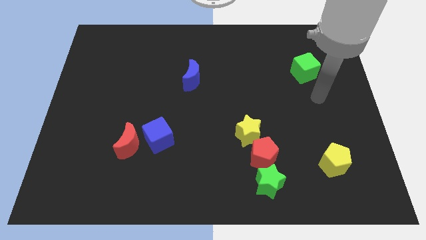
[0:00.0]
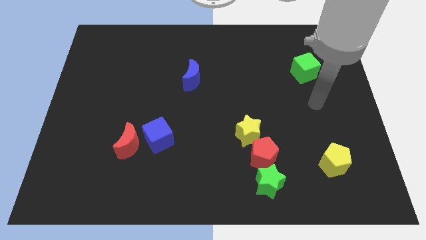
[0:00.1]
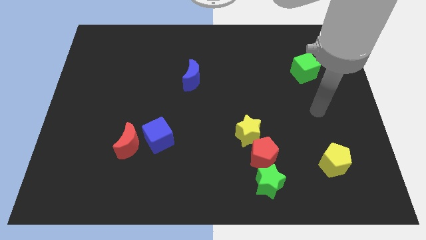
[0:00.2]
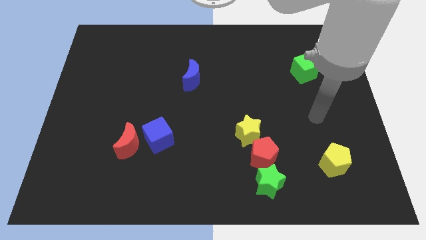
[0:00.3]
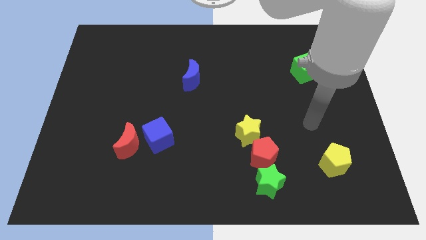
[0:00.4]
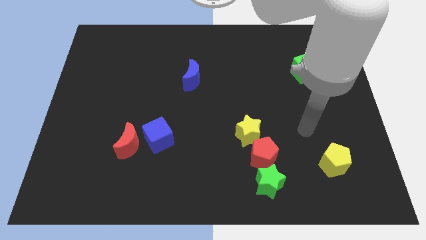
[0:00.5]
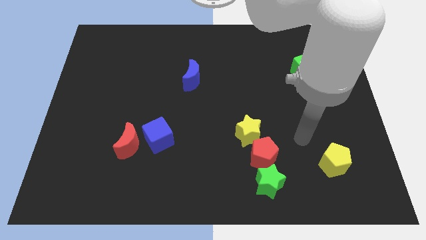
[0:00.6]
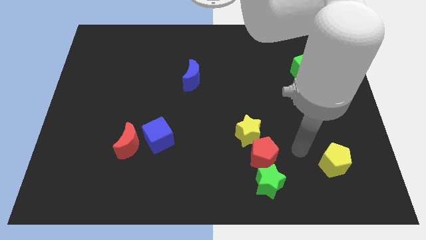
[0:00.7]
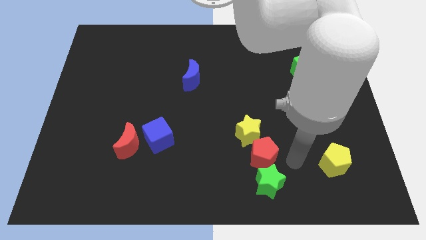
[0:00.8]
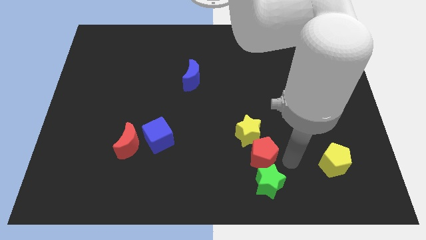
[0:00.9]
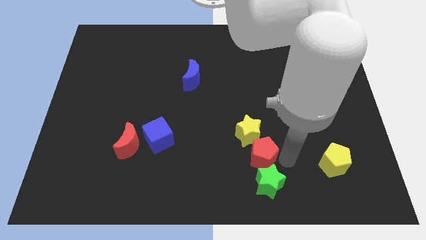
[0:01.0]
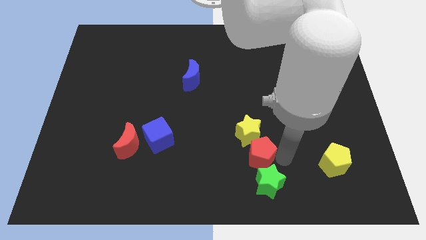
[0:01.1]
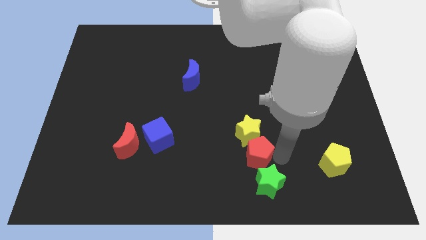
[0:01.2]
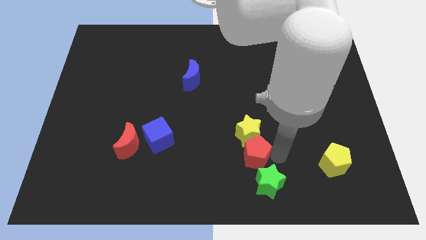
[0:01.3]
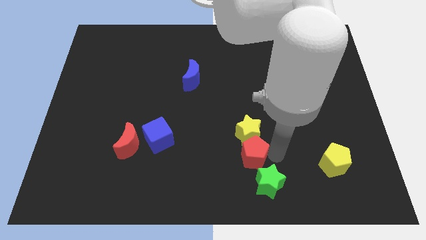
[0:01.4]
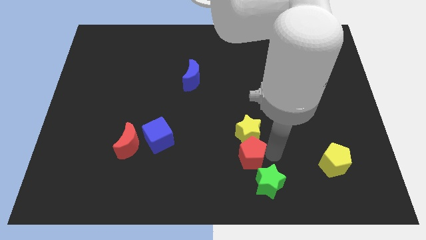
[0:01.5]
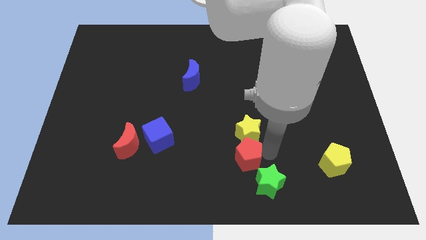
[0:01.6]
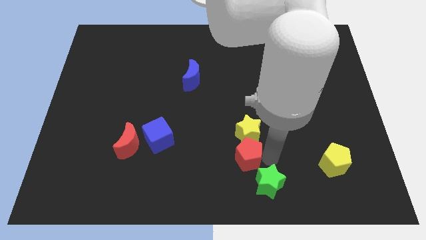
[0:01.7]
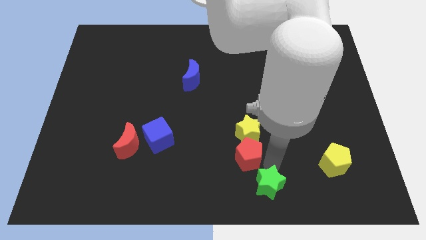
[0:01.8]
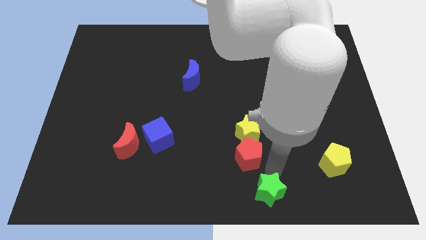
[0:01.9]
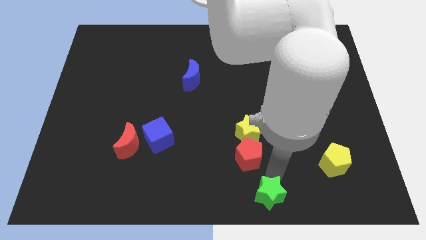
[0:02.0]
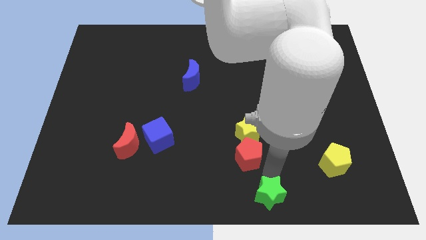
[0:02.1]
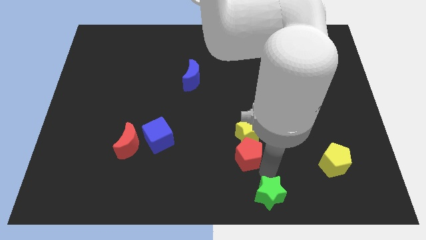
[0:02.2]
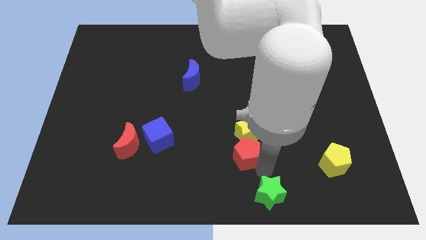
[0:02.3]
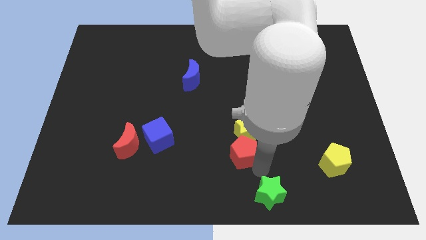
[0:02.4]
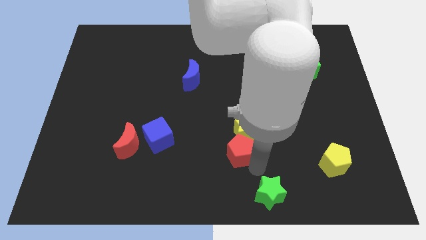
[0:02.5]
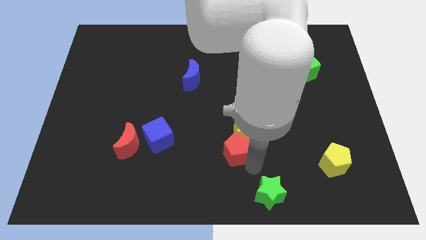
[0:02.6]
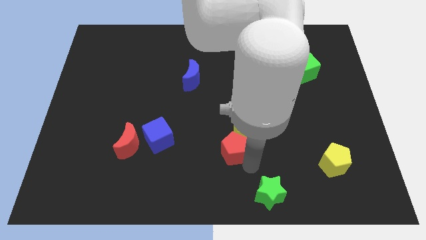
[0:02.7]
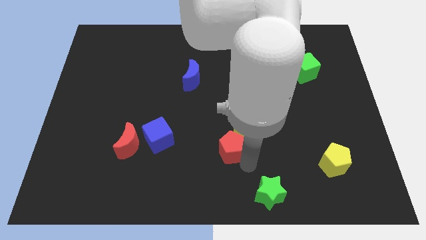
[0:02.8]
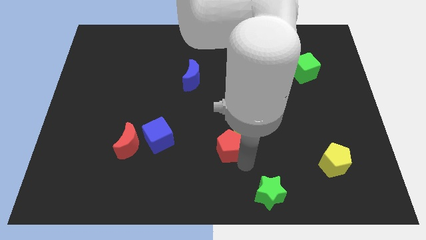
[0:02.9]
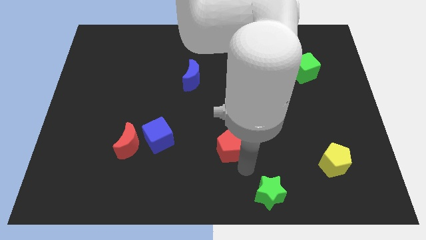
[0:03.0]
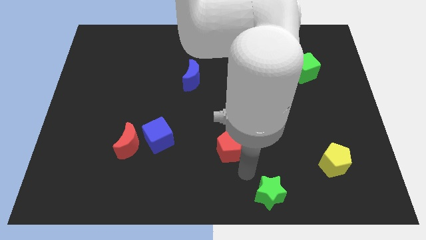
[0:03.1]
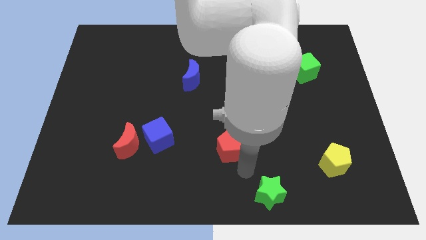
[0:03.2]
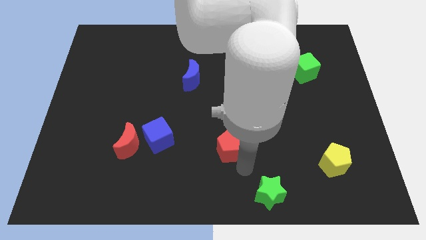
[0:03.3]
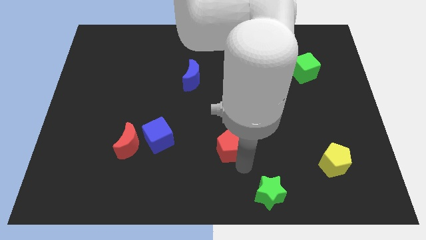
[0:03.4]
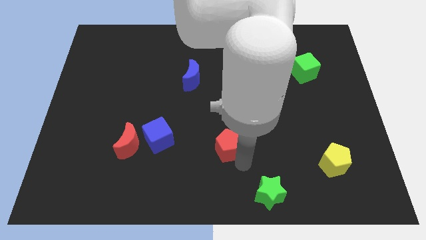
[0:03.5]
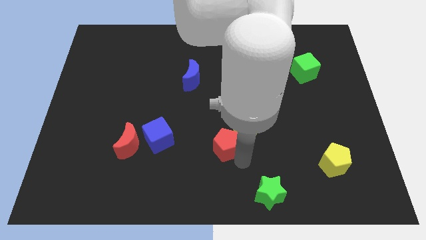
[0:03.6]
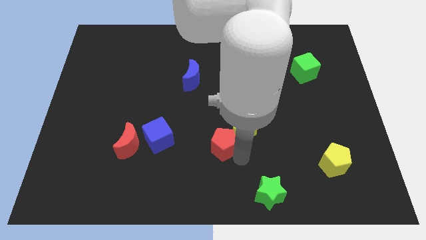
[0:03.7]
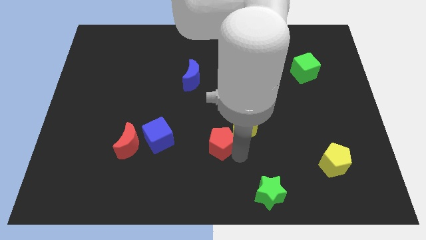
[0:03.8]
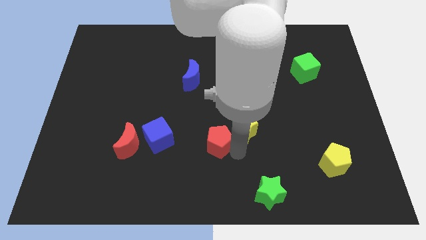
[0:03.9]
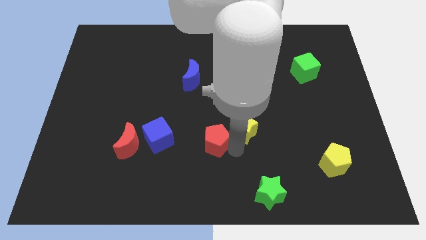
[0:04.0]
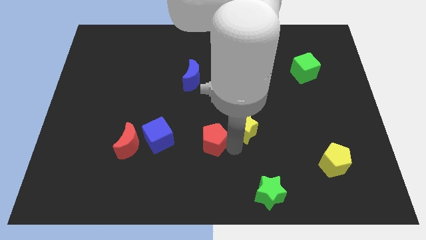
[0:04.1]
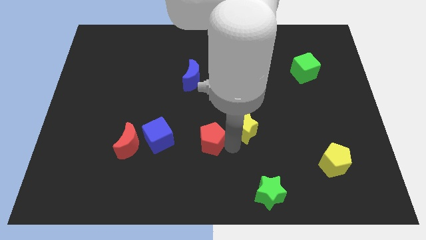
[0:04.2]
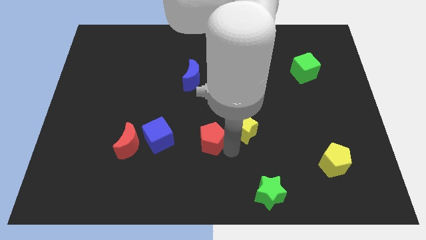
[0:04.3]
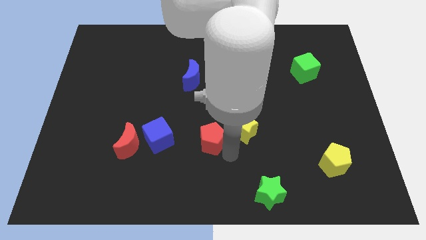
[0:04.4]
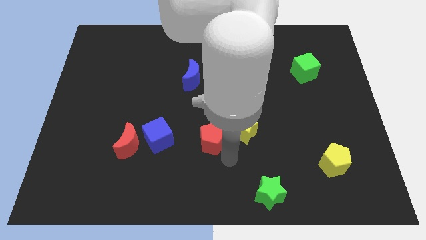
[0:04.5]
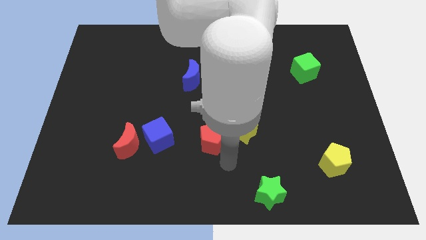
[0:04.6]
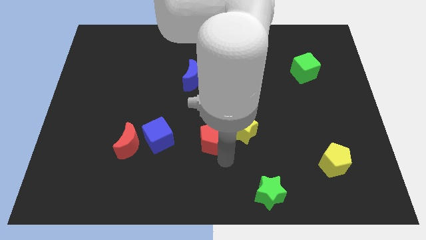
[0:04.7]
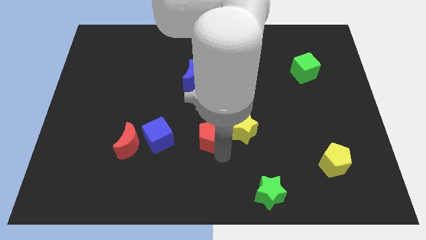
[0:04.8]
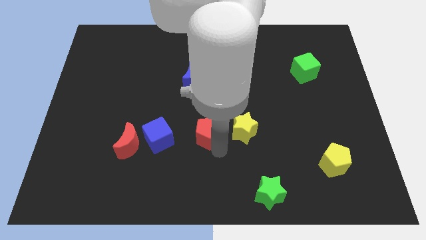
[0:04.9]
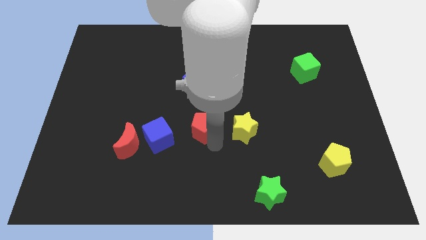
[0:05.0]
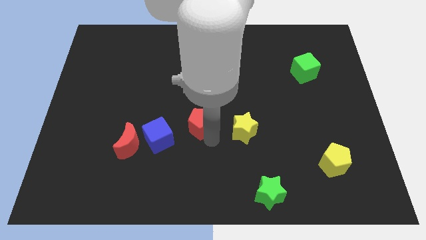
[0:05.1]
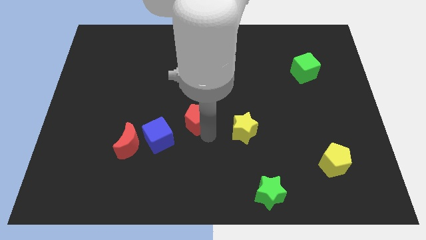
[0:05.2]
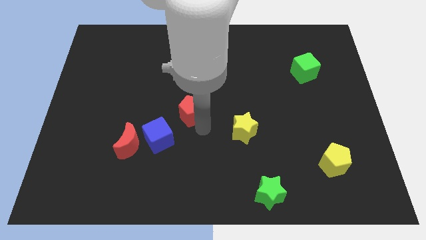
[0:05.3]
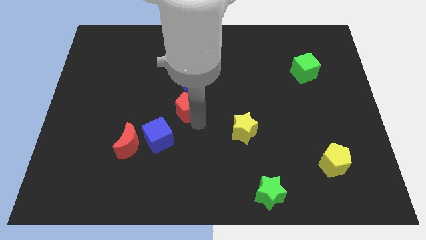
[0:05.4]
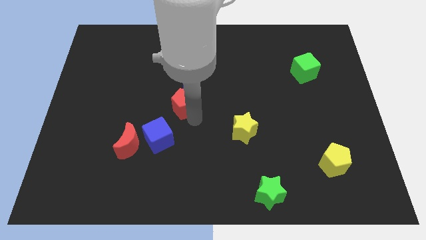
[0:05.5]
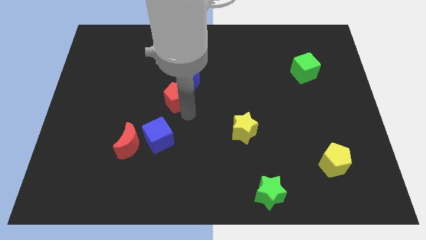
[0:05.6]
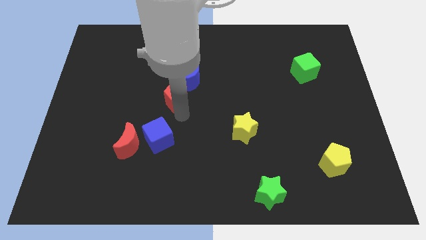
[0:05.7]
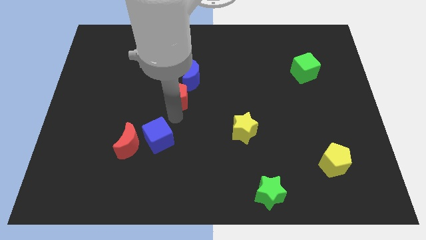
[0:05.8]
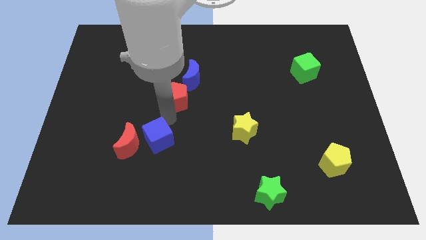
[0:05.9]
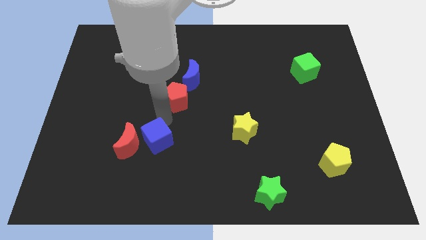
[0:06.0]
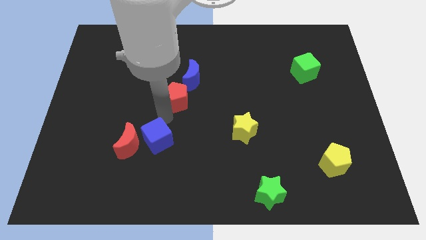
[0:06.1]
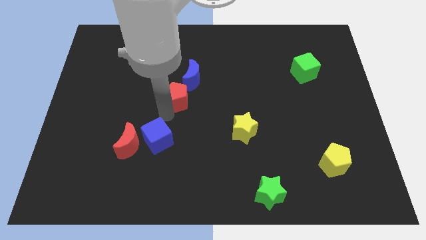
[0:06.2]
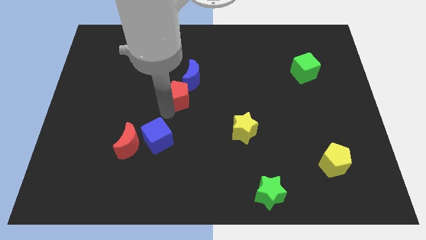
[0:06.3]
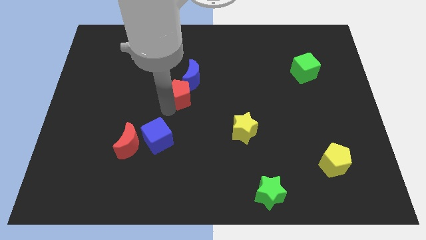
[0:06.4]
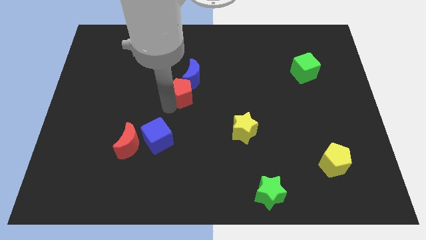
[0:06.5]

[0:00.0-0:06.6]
move the red pentagon next to the blue moon

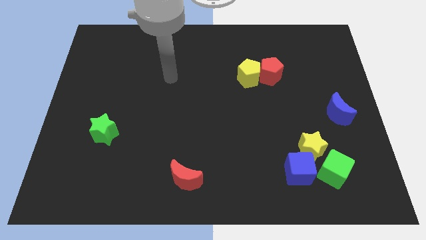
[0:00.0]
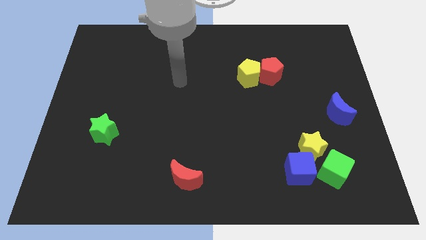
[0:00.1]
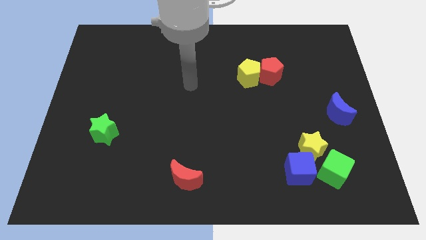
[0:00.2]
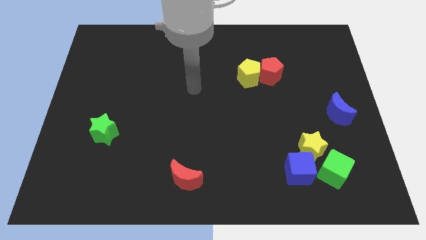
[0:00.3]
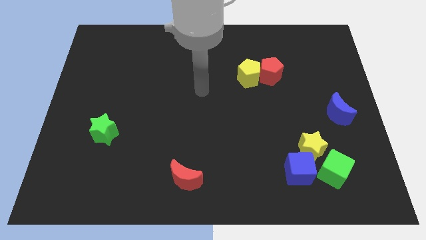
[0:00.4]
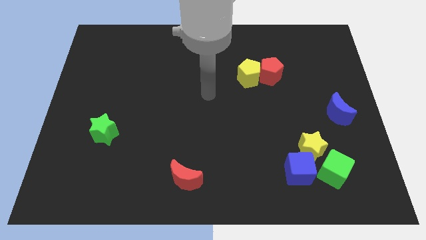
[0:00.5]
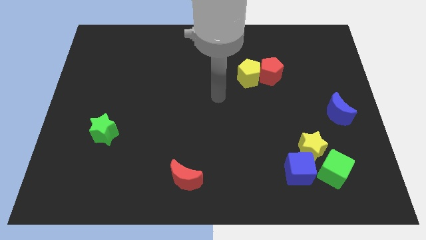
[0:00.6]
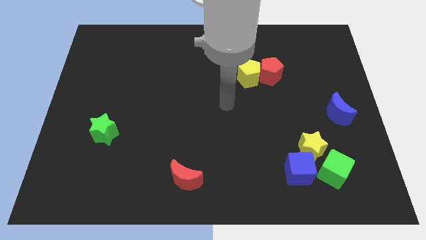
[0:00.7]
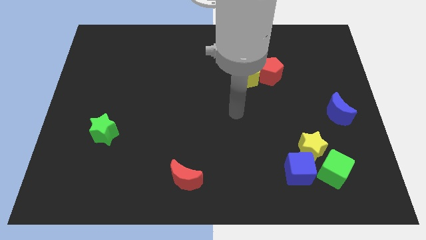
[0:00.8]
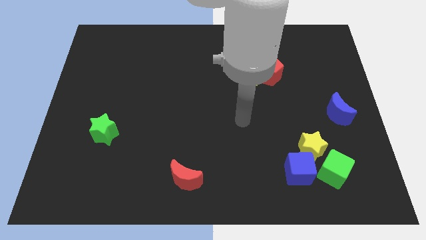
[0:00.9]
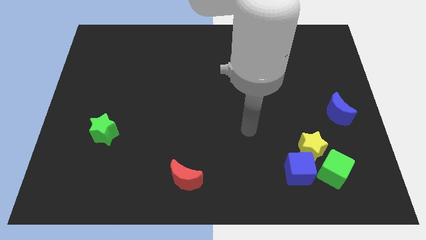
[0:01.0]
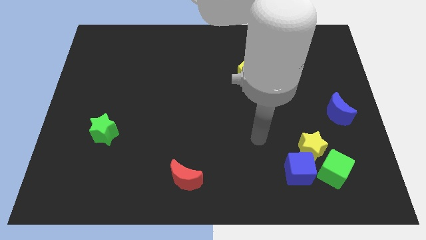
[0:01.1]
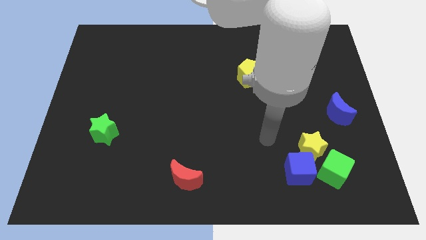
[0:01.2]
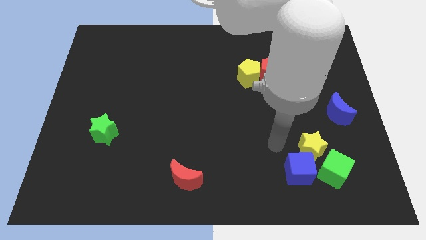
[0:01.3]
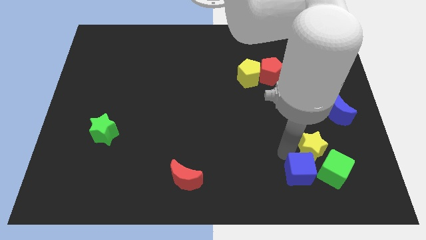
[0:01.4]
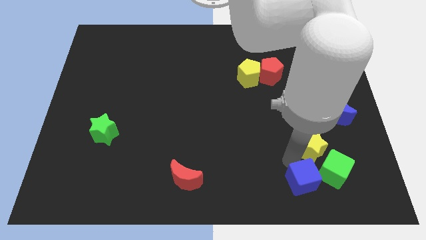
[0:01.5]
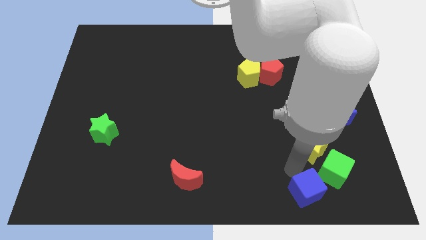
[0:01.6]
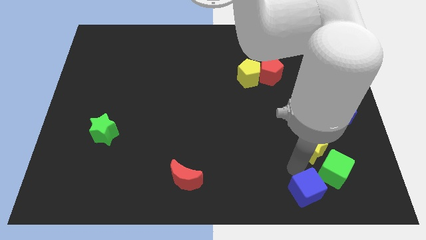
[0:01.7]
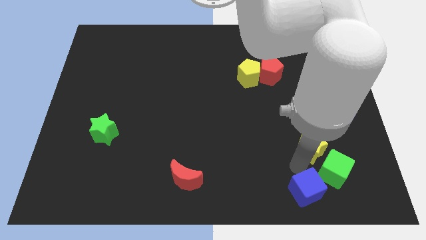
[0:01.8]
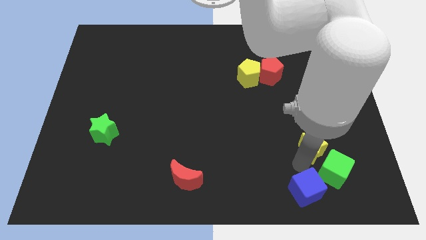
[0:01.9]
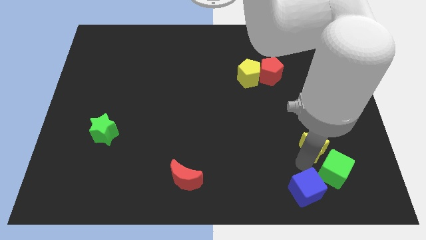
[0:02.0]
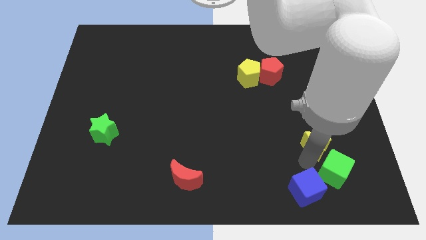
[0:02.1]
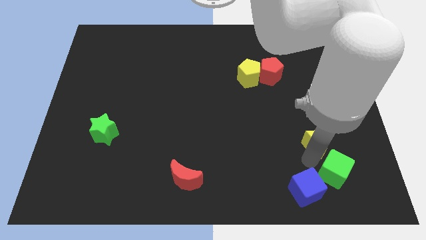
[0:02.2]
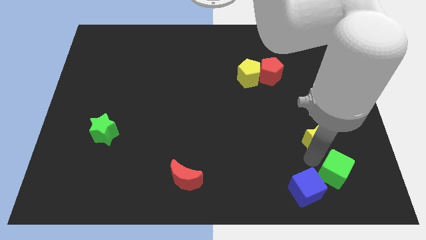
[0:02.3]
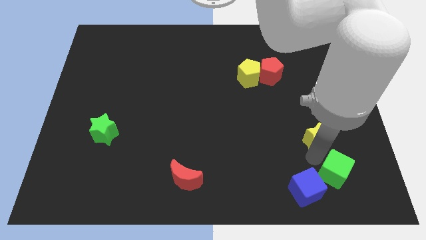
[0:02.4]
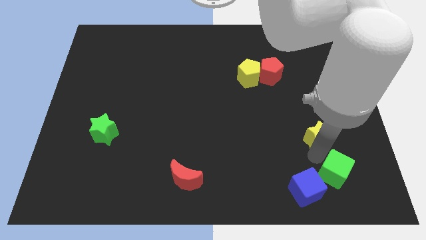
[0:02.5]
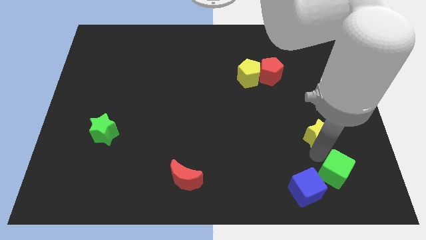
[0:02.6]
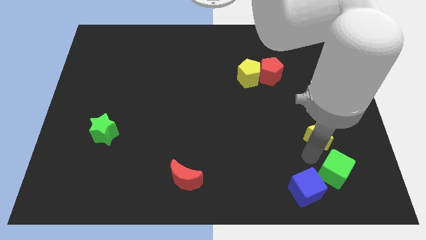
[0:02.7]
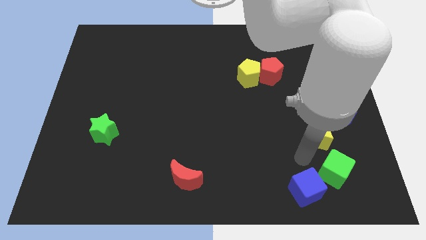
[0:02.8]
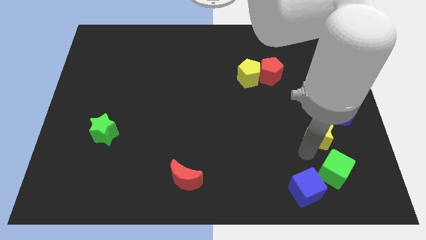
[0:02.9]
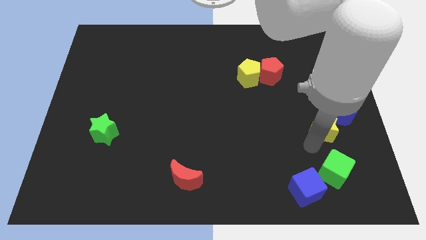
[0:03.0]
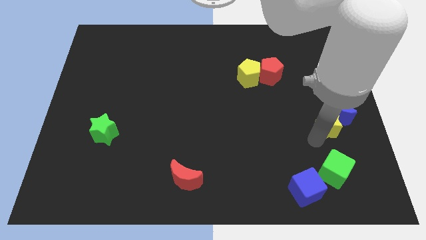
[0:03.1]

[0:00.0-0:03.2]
slide the yellow star to the blue moon
